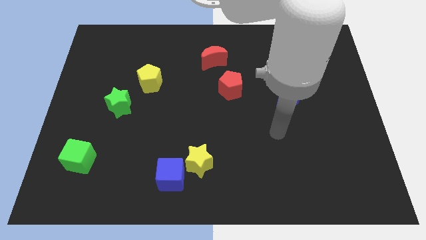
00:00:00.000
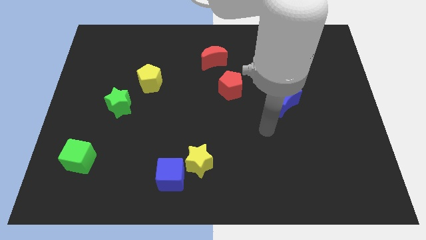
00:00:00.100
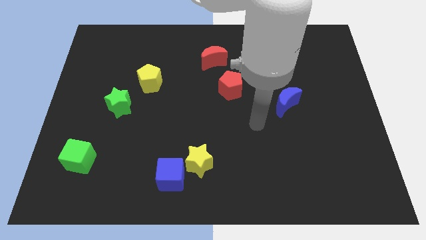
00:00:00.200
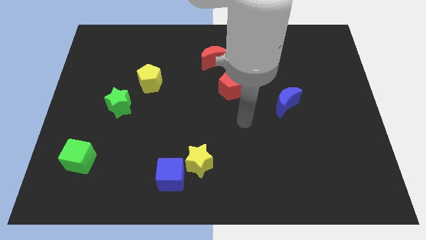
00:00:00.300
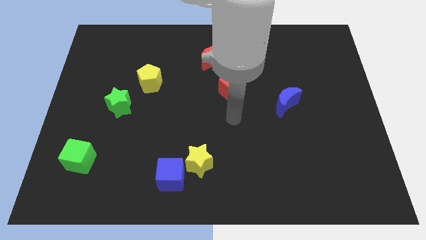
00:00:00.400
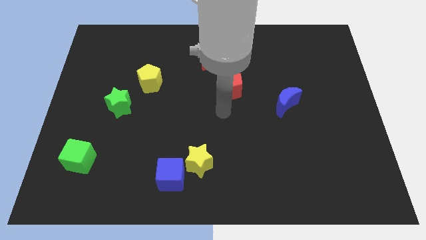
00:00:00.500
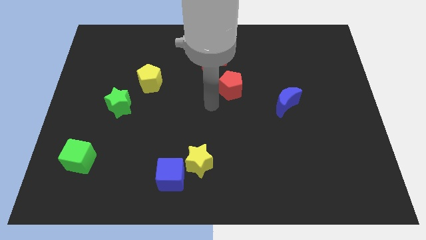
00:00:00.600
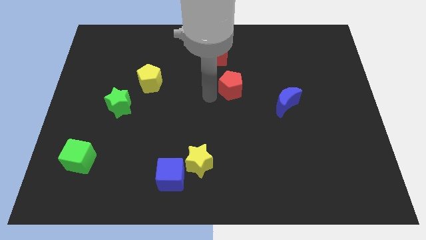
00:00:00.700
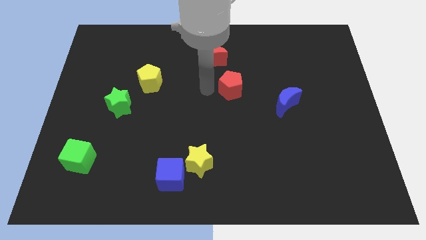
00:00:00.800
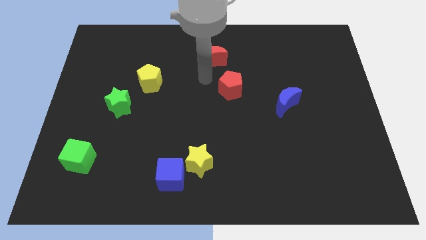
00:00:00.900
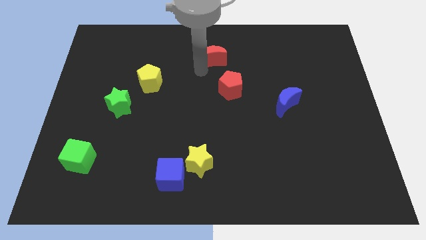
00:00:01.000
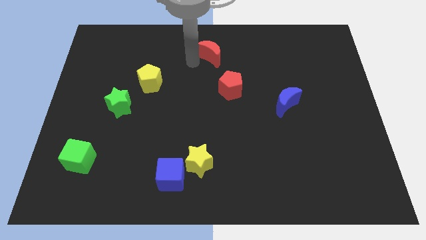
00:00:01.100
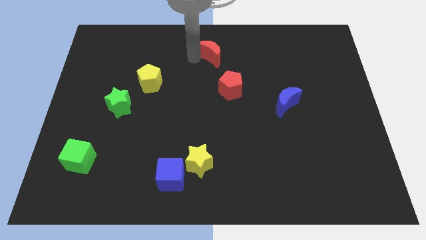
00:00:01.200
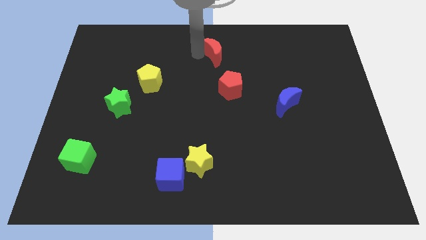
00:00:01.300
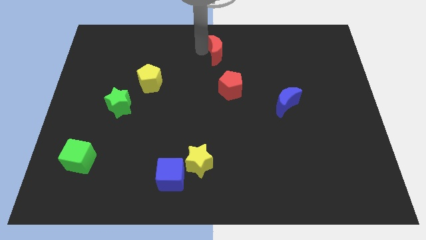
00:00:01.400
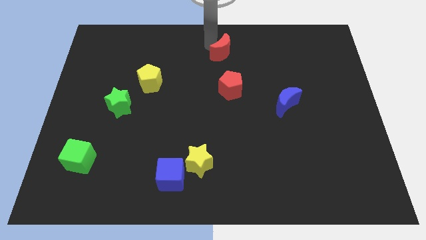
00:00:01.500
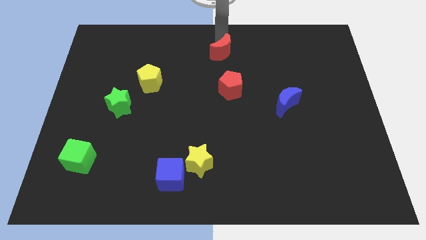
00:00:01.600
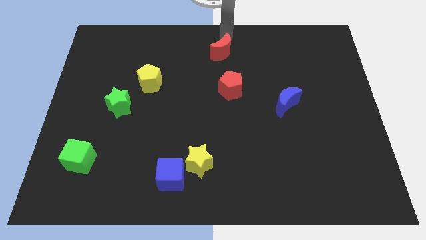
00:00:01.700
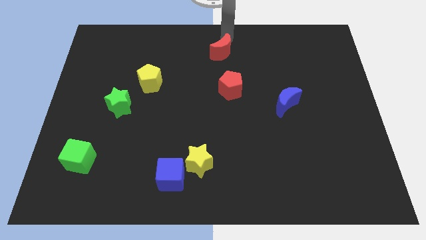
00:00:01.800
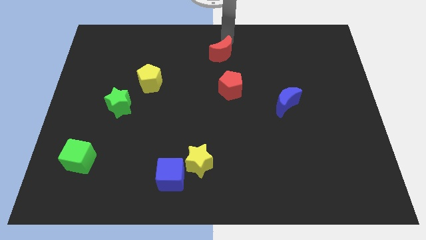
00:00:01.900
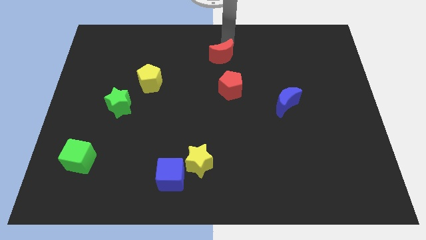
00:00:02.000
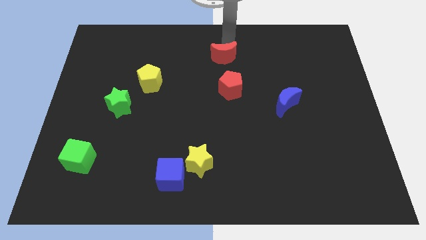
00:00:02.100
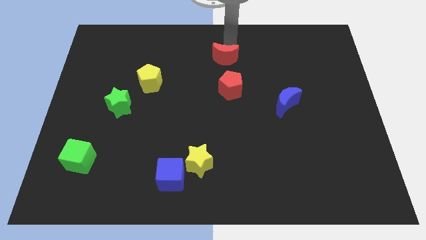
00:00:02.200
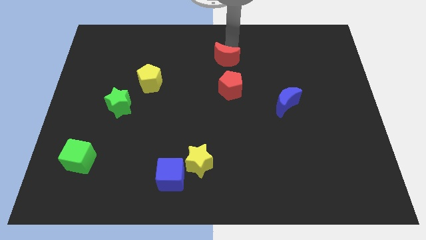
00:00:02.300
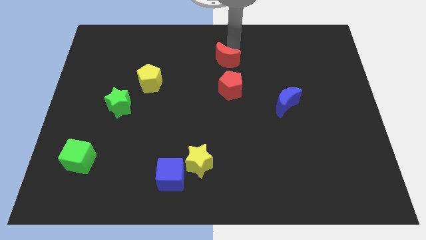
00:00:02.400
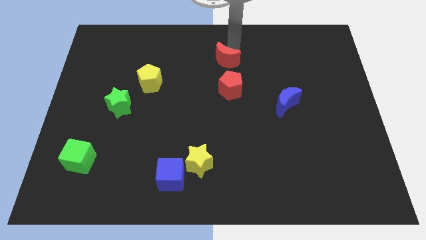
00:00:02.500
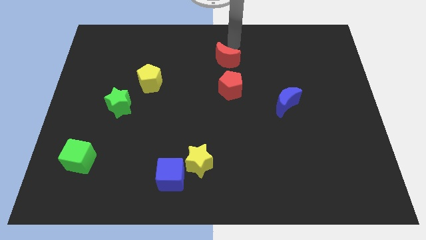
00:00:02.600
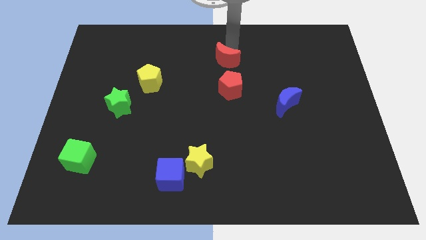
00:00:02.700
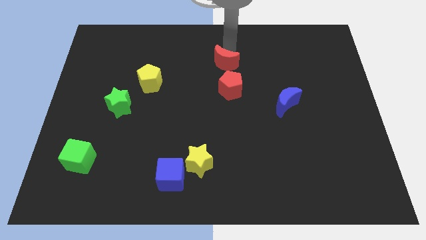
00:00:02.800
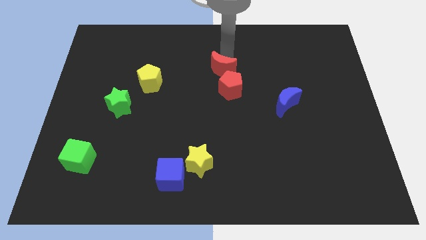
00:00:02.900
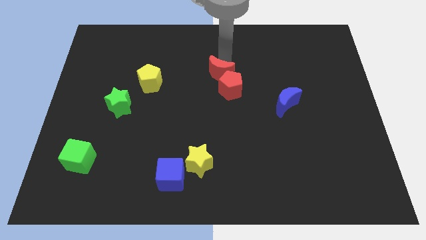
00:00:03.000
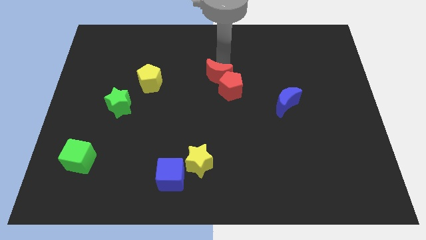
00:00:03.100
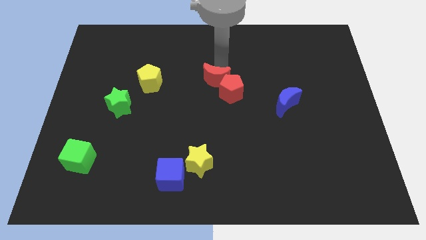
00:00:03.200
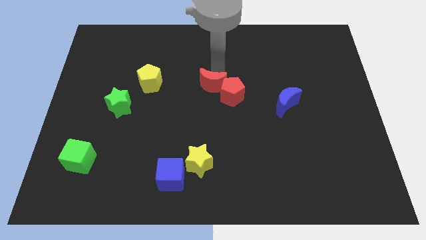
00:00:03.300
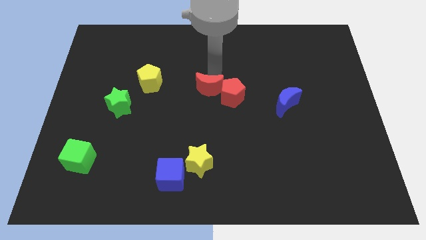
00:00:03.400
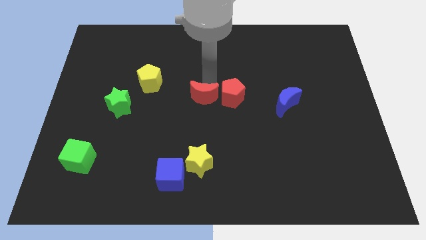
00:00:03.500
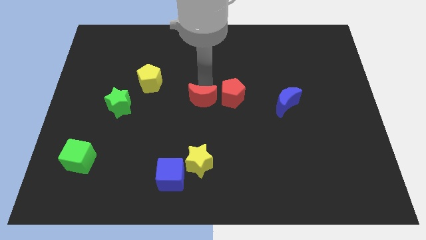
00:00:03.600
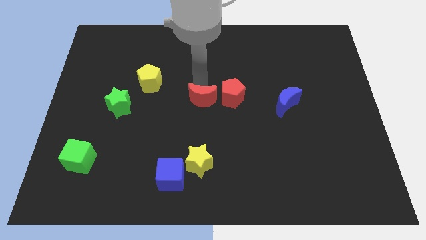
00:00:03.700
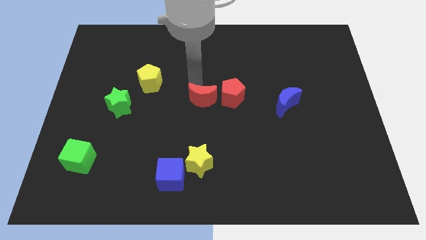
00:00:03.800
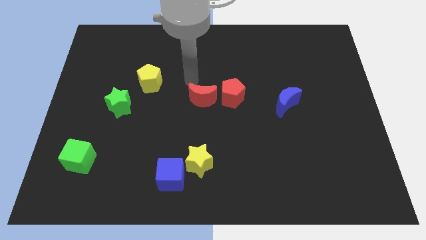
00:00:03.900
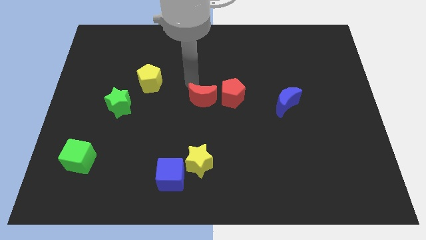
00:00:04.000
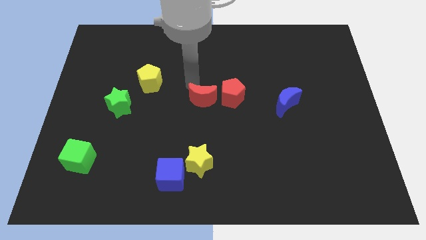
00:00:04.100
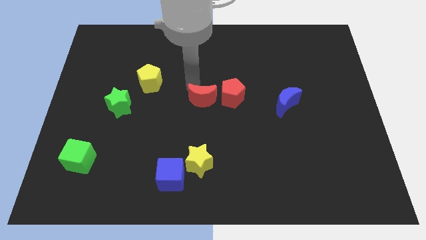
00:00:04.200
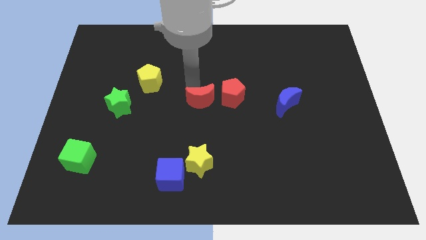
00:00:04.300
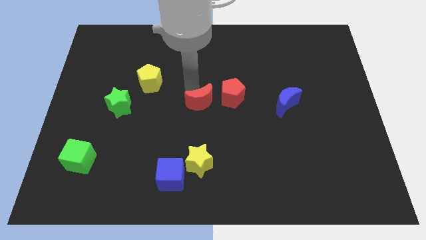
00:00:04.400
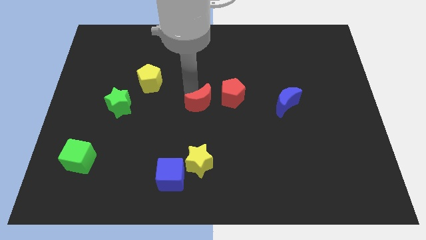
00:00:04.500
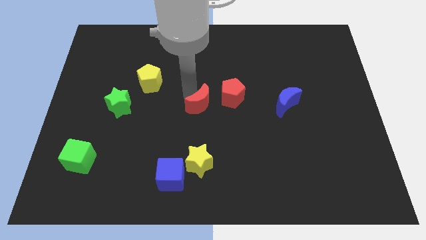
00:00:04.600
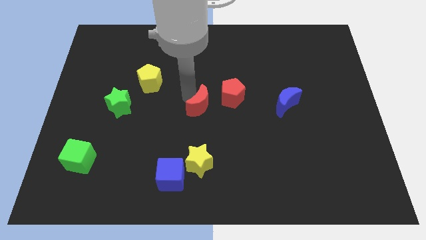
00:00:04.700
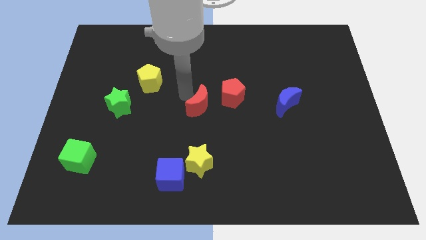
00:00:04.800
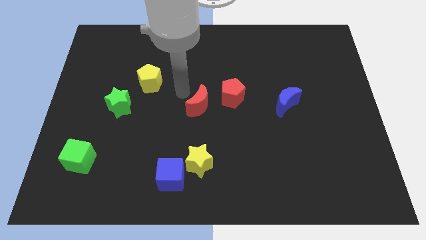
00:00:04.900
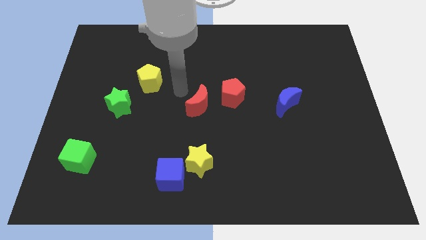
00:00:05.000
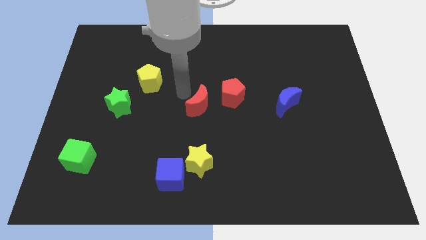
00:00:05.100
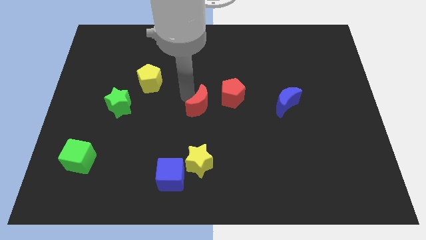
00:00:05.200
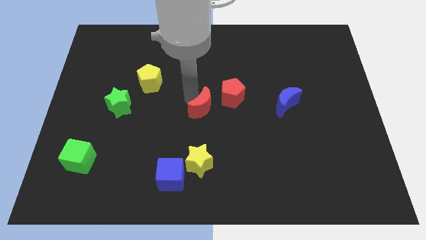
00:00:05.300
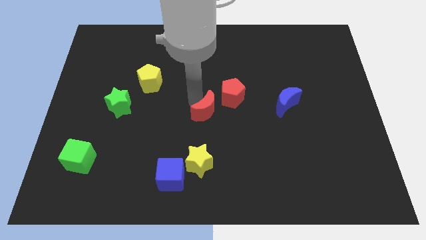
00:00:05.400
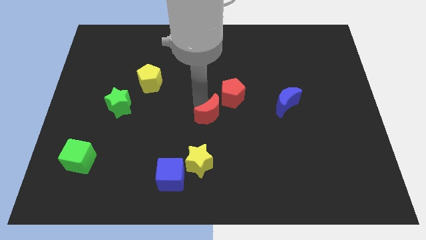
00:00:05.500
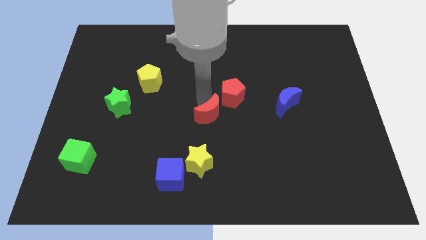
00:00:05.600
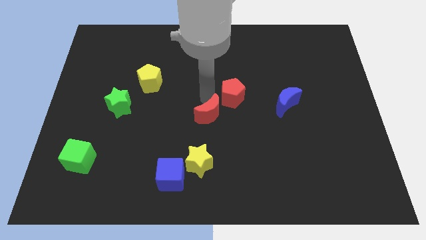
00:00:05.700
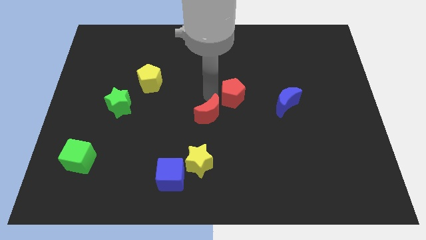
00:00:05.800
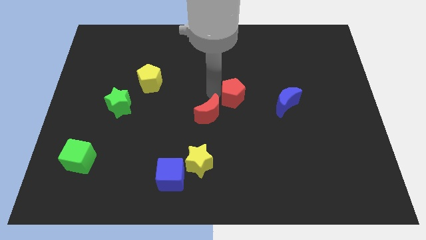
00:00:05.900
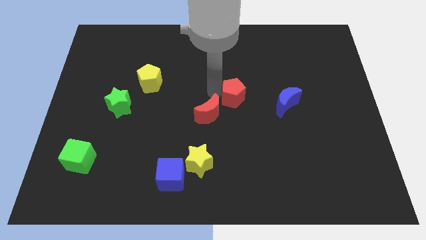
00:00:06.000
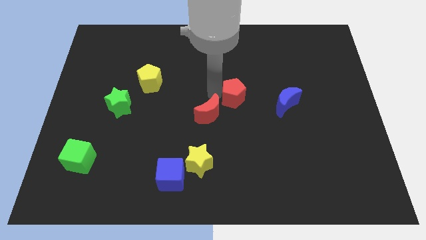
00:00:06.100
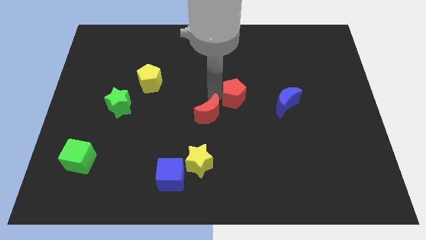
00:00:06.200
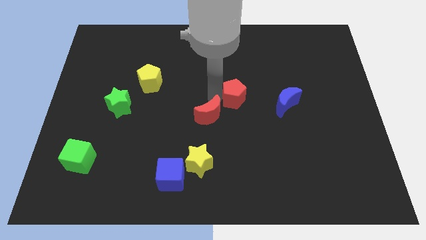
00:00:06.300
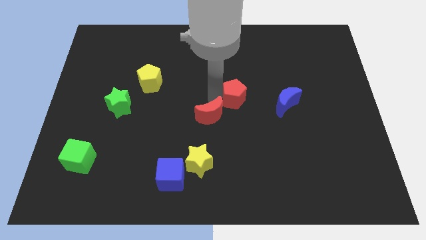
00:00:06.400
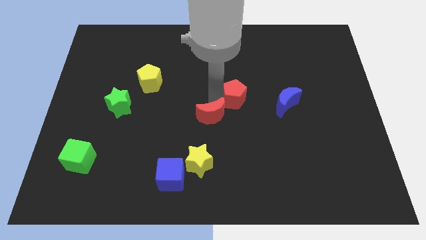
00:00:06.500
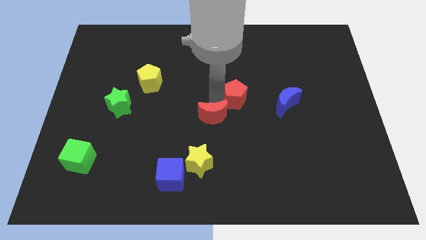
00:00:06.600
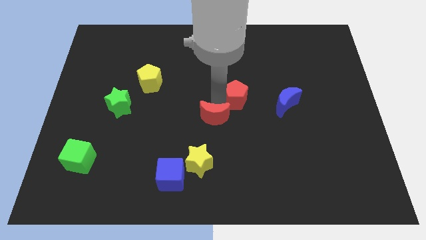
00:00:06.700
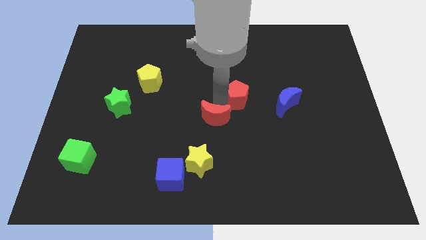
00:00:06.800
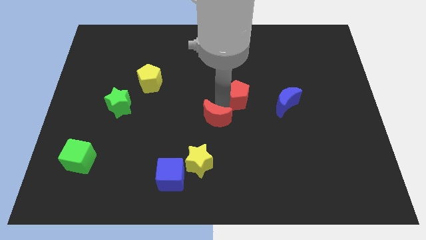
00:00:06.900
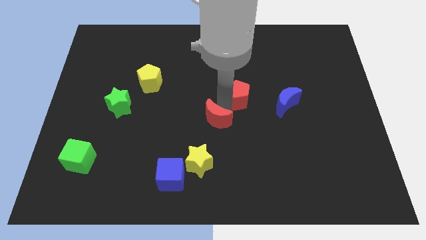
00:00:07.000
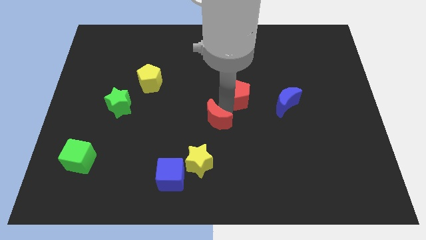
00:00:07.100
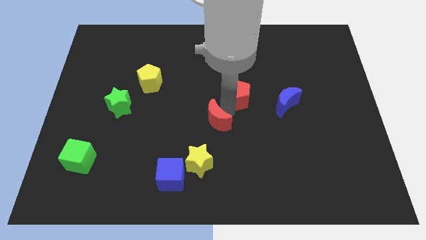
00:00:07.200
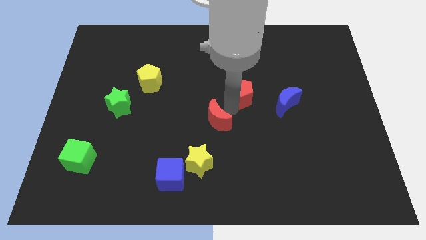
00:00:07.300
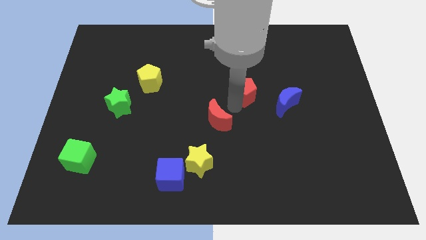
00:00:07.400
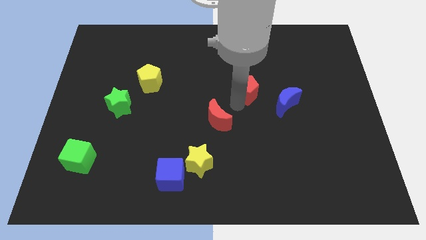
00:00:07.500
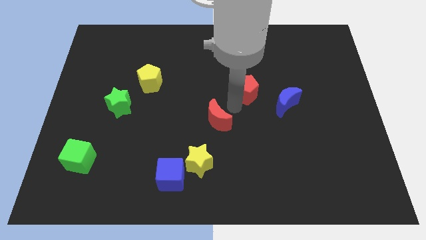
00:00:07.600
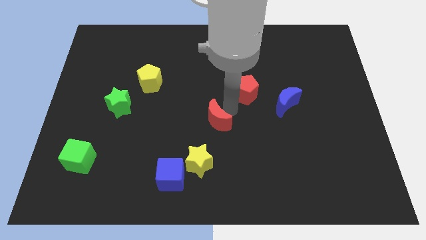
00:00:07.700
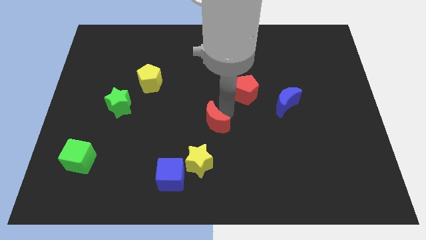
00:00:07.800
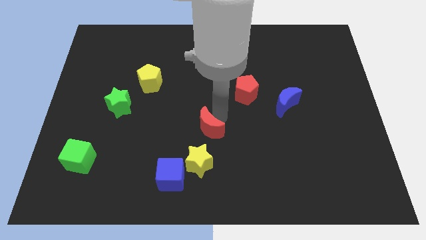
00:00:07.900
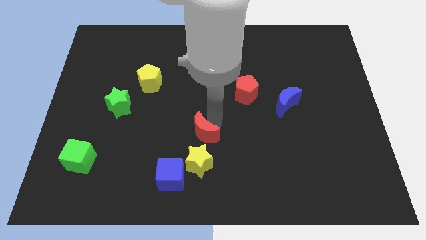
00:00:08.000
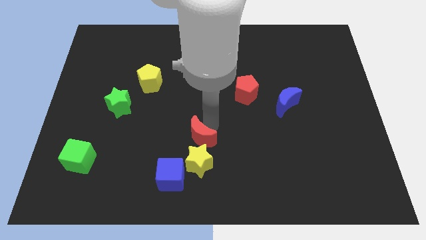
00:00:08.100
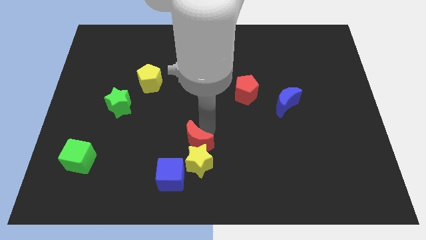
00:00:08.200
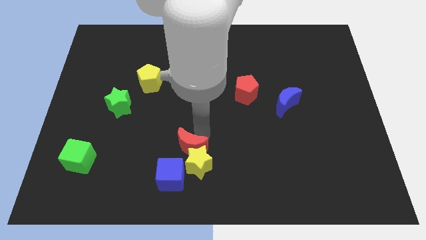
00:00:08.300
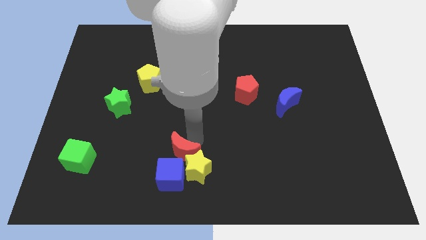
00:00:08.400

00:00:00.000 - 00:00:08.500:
slide the red moon to the blue cube
